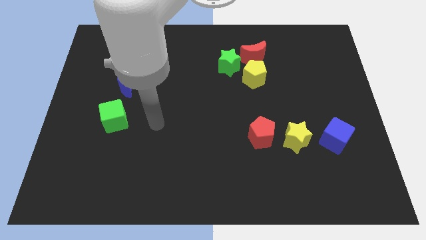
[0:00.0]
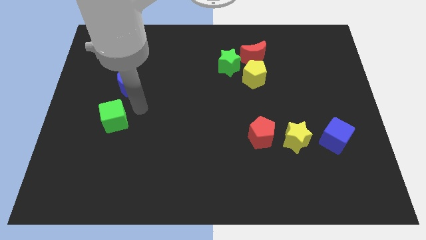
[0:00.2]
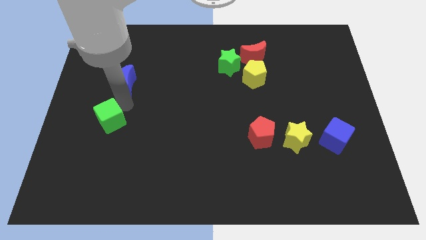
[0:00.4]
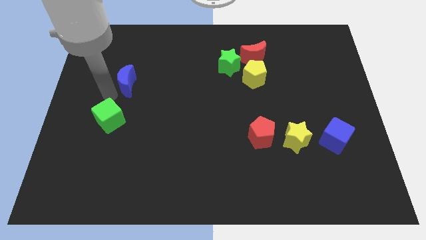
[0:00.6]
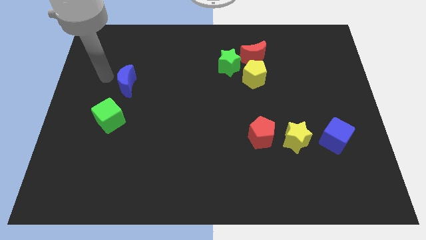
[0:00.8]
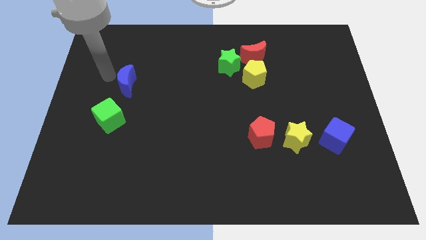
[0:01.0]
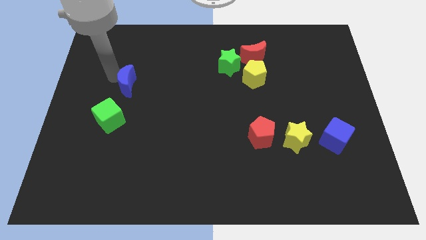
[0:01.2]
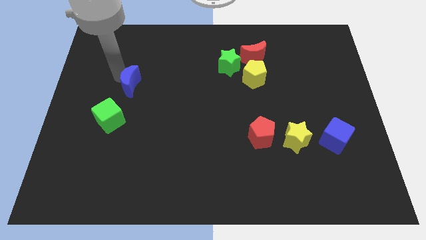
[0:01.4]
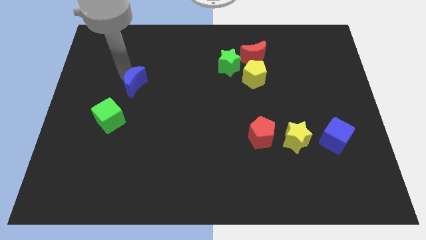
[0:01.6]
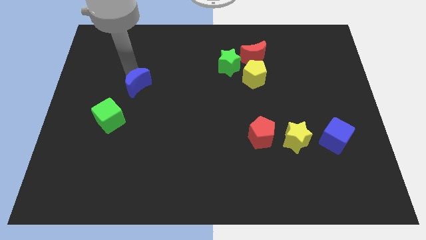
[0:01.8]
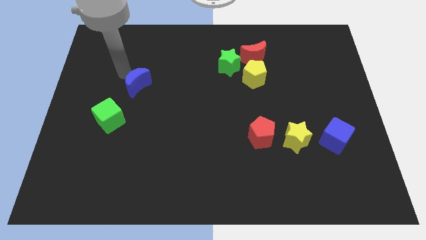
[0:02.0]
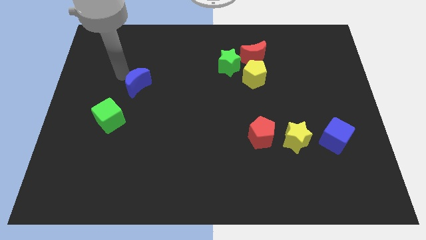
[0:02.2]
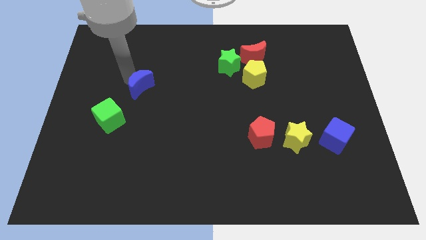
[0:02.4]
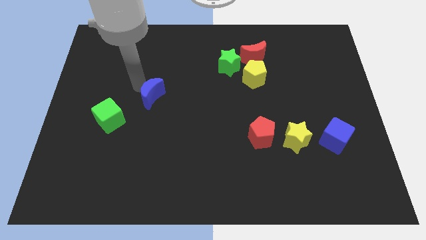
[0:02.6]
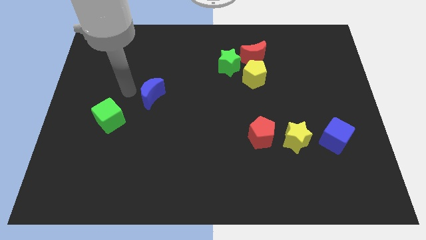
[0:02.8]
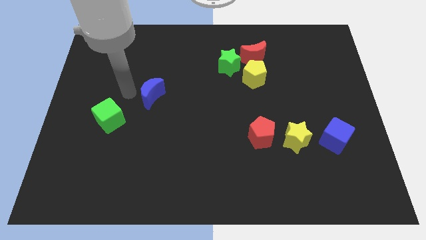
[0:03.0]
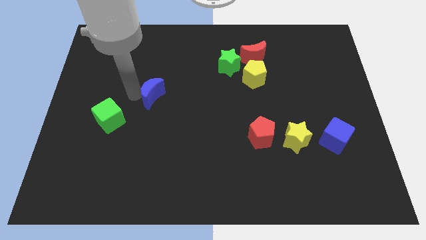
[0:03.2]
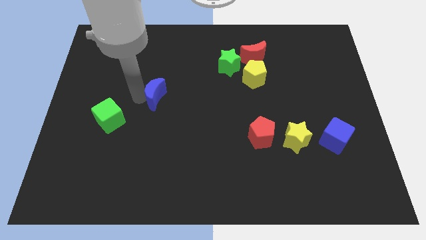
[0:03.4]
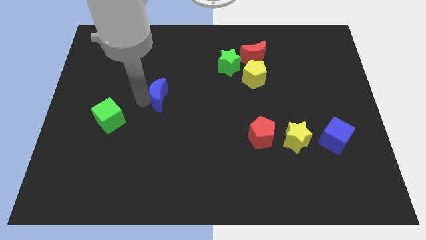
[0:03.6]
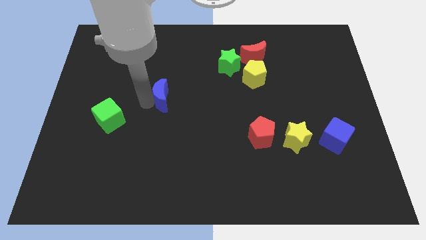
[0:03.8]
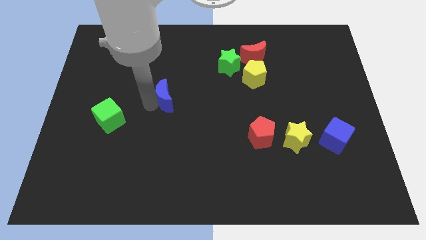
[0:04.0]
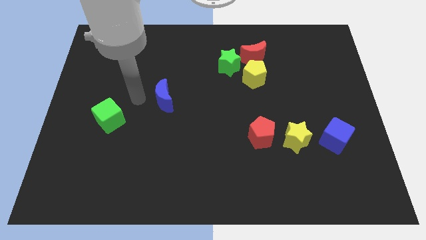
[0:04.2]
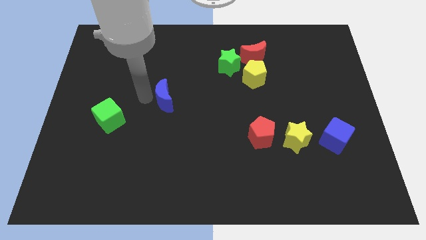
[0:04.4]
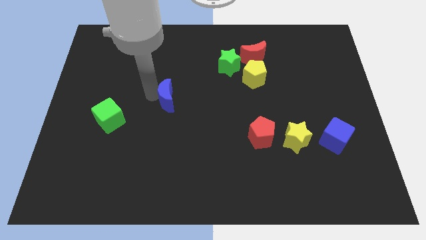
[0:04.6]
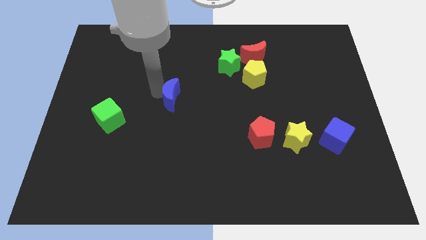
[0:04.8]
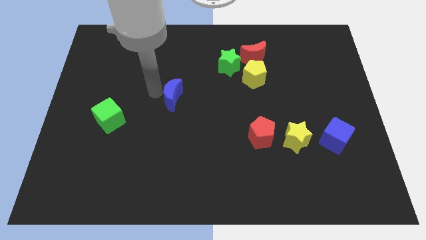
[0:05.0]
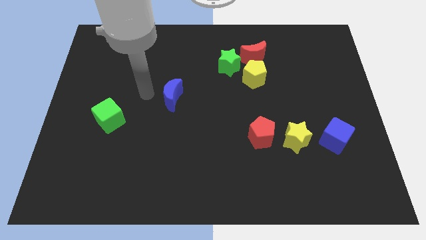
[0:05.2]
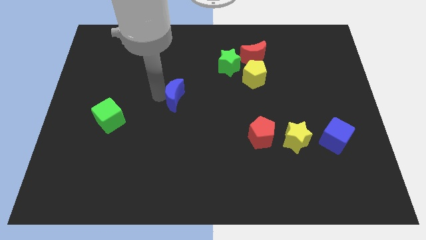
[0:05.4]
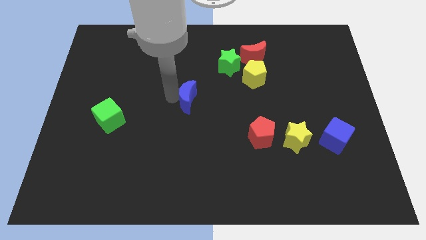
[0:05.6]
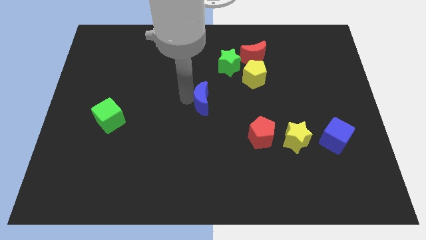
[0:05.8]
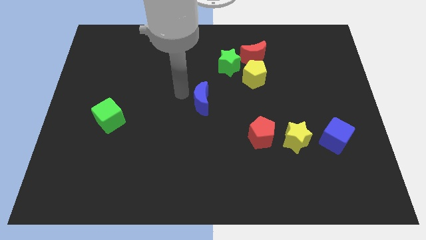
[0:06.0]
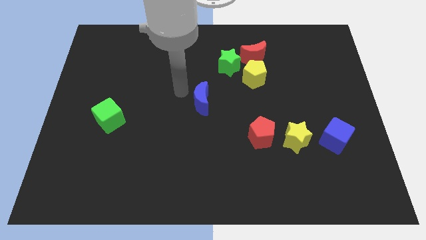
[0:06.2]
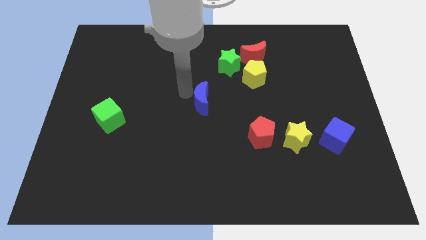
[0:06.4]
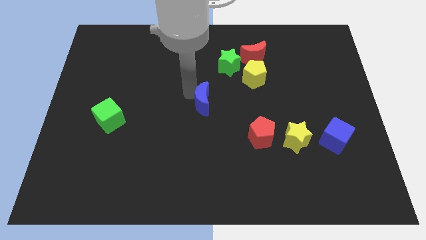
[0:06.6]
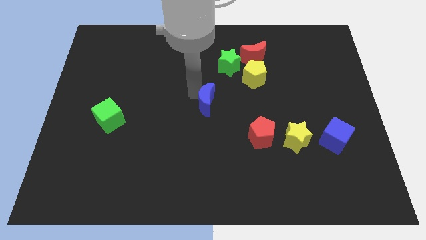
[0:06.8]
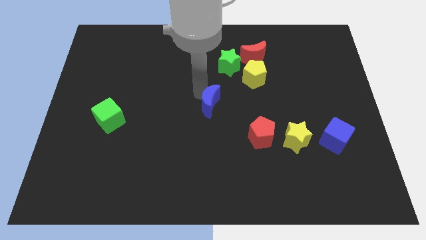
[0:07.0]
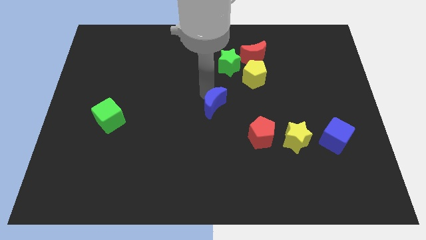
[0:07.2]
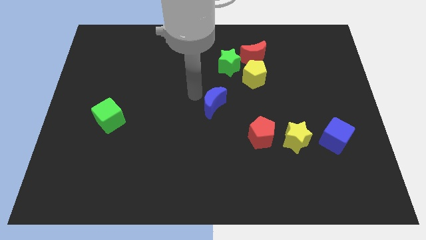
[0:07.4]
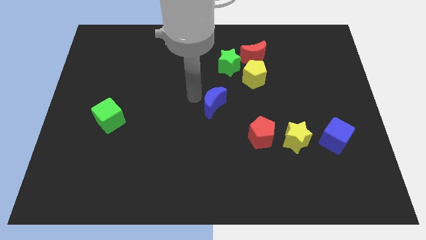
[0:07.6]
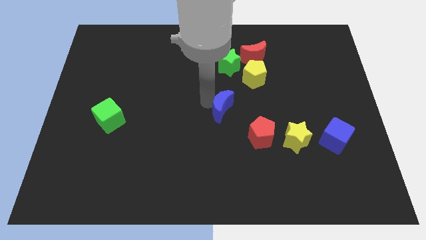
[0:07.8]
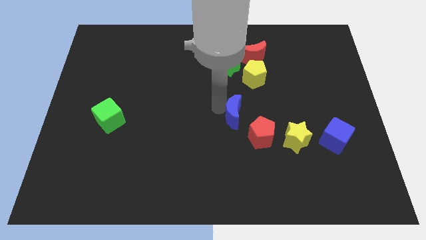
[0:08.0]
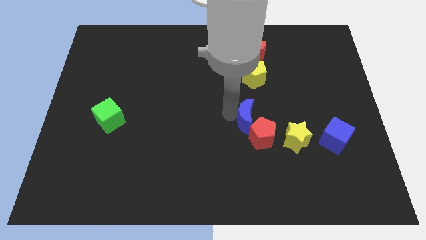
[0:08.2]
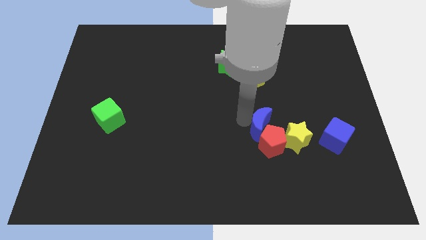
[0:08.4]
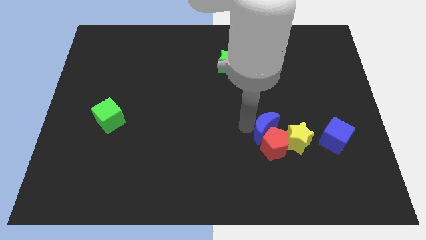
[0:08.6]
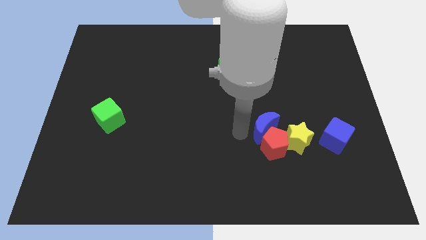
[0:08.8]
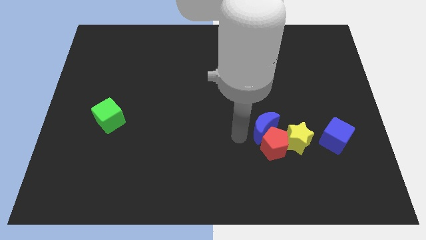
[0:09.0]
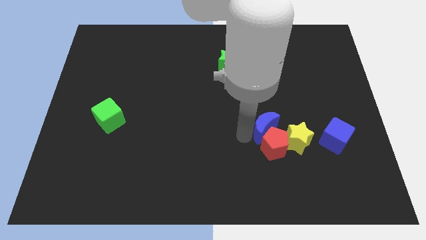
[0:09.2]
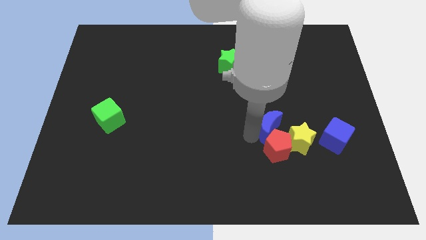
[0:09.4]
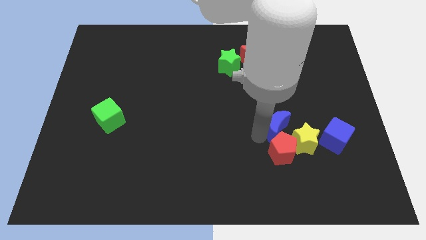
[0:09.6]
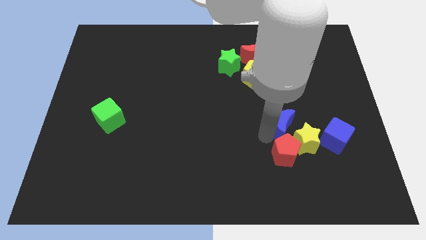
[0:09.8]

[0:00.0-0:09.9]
slide the blue moon next to the yellow star

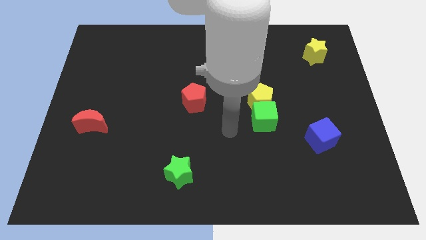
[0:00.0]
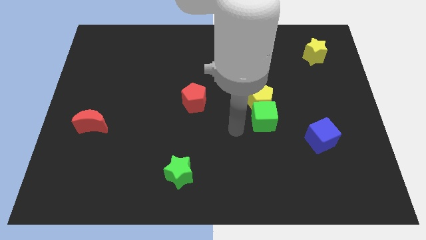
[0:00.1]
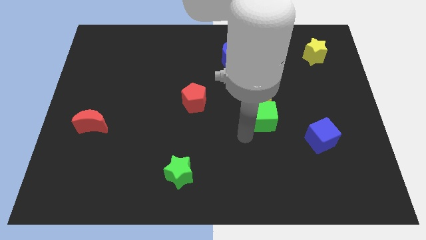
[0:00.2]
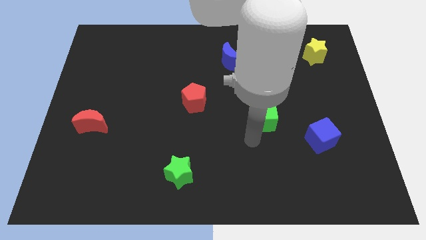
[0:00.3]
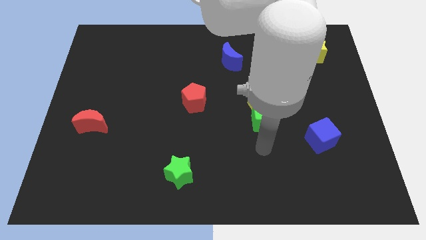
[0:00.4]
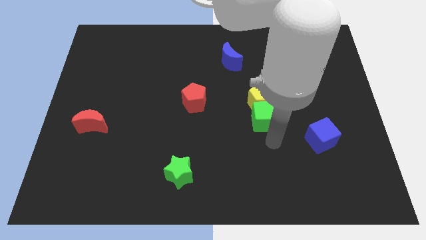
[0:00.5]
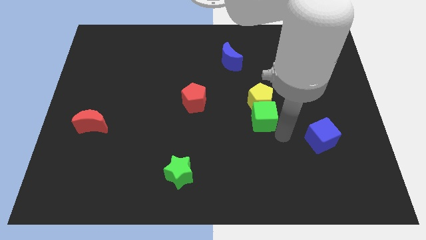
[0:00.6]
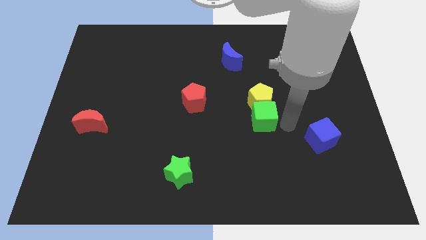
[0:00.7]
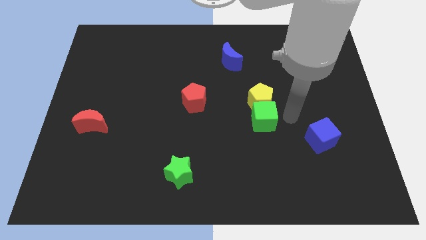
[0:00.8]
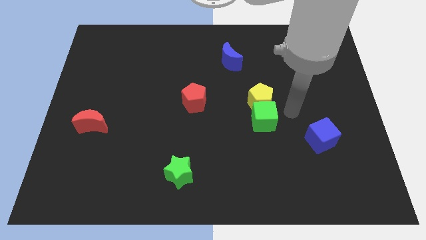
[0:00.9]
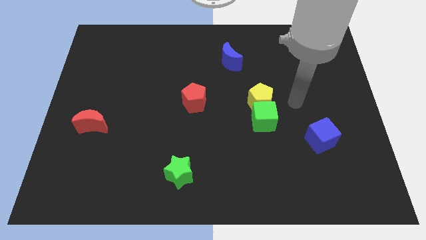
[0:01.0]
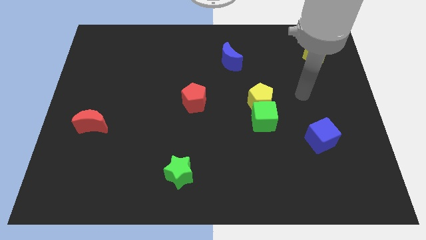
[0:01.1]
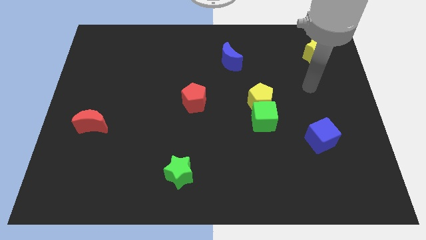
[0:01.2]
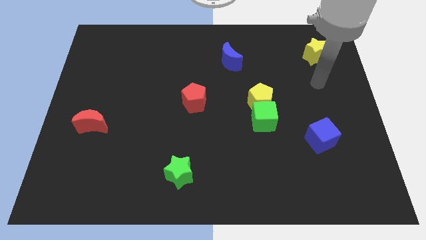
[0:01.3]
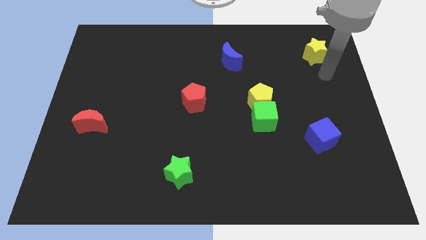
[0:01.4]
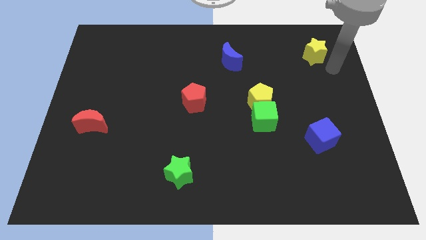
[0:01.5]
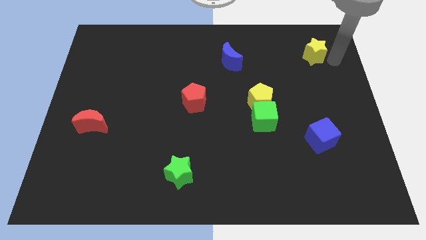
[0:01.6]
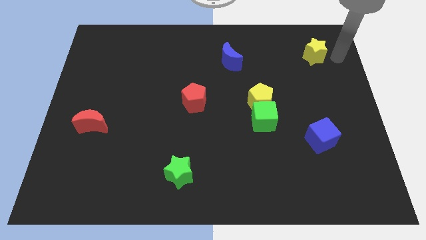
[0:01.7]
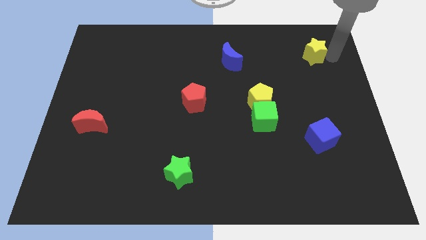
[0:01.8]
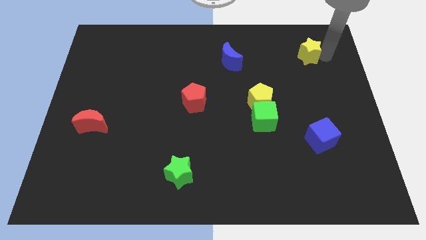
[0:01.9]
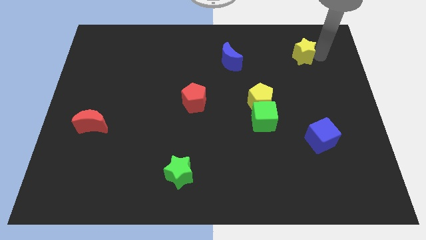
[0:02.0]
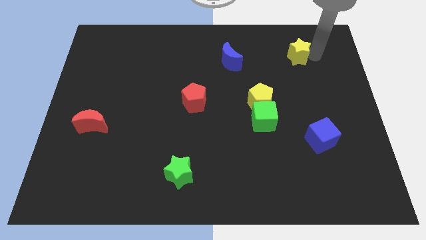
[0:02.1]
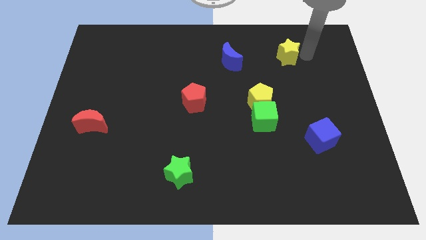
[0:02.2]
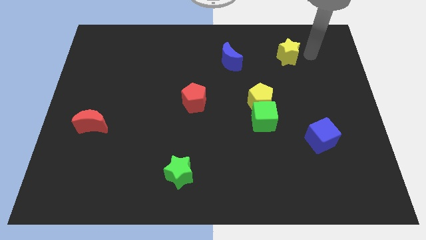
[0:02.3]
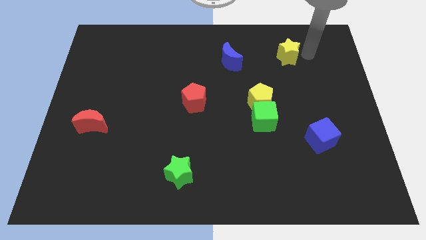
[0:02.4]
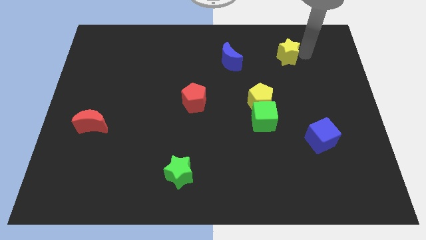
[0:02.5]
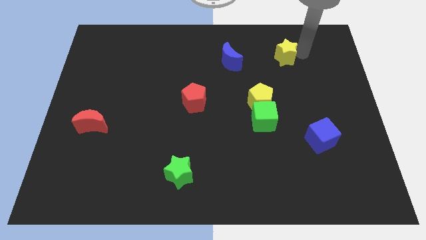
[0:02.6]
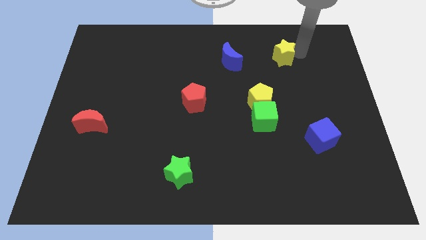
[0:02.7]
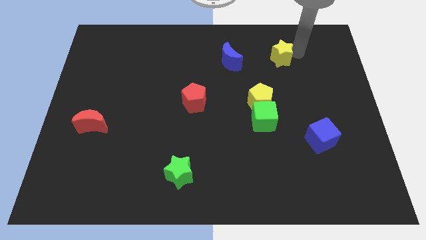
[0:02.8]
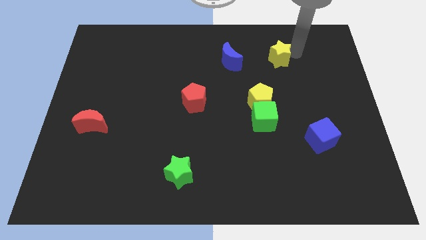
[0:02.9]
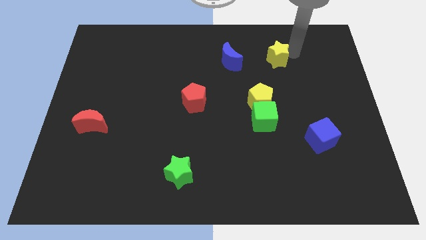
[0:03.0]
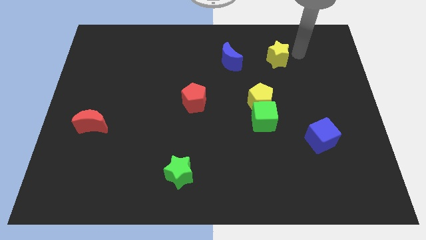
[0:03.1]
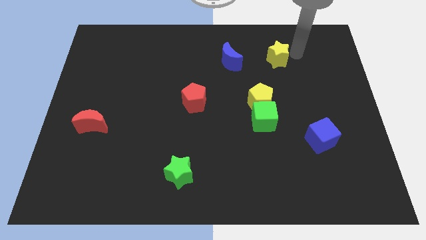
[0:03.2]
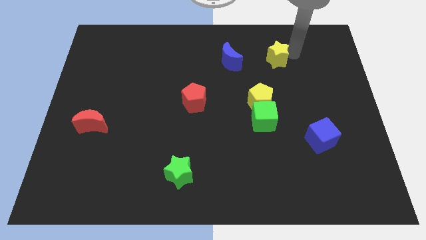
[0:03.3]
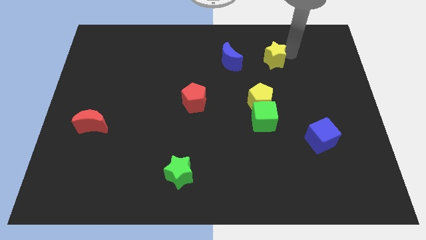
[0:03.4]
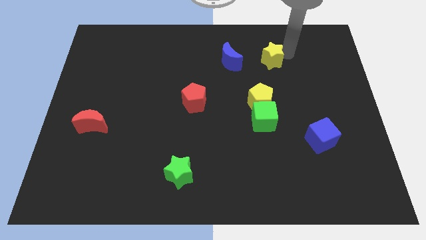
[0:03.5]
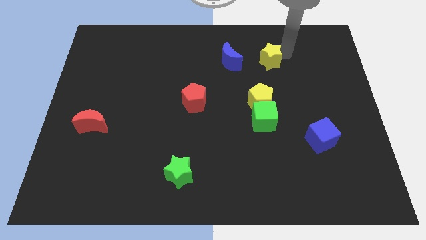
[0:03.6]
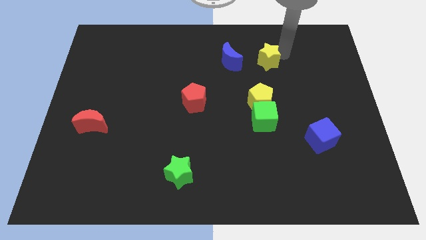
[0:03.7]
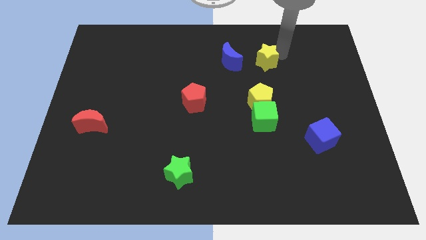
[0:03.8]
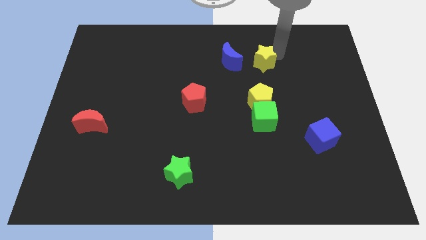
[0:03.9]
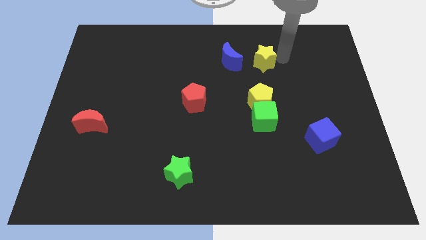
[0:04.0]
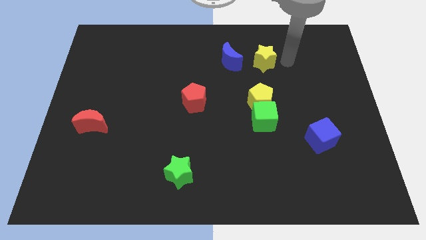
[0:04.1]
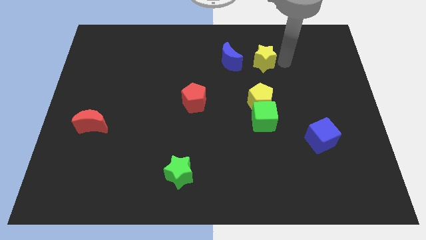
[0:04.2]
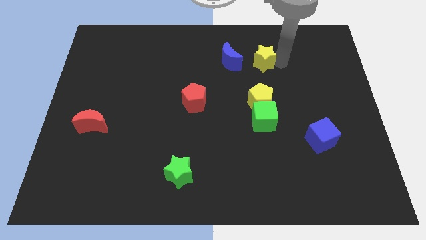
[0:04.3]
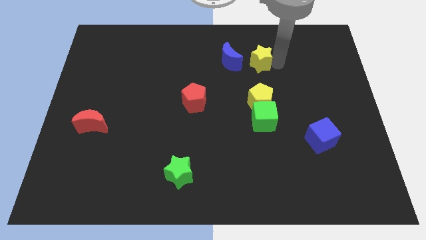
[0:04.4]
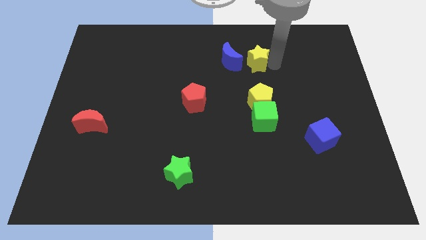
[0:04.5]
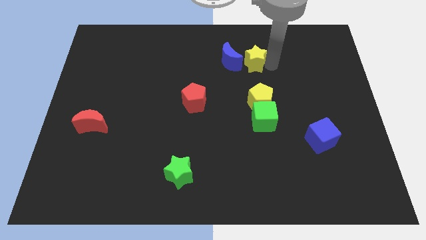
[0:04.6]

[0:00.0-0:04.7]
push the yellow star towards the blue moon
